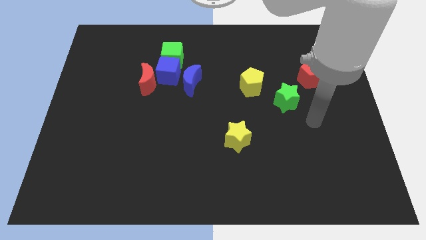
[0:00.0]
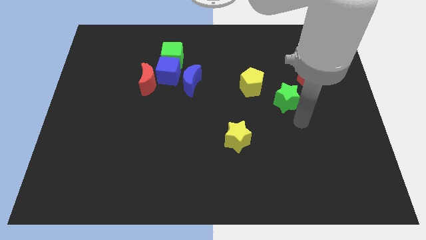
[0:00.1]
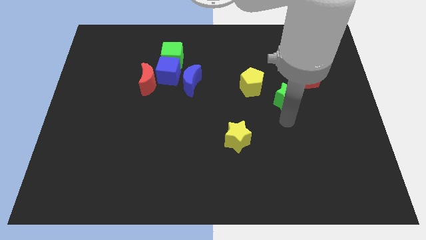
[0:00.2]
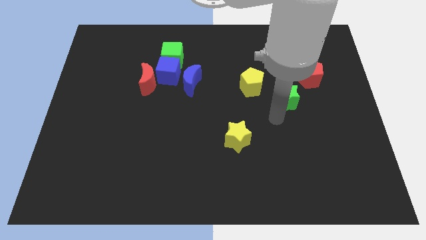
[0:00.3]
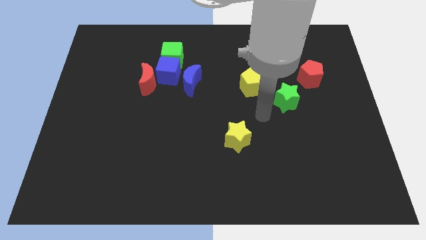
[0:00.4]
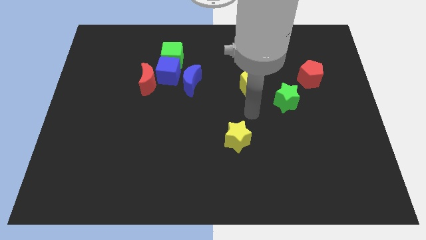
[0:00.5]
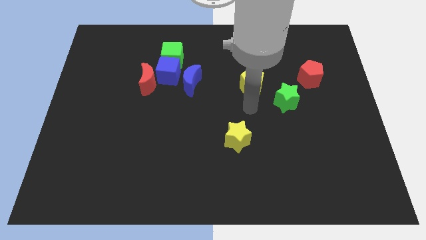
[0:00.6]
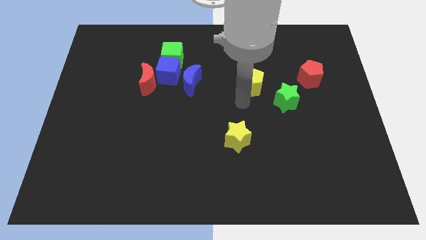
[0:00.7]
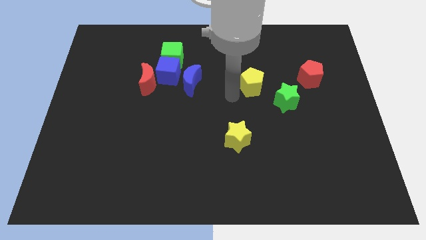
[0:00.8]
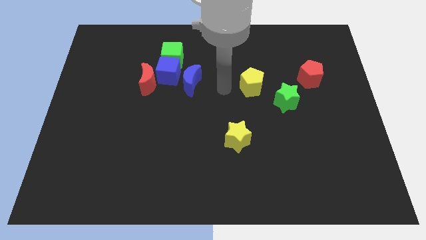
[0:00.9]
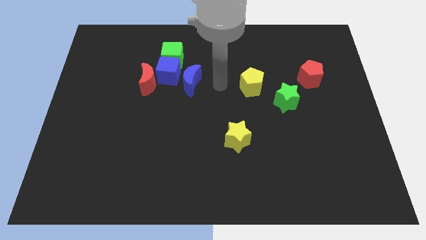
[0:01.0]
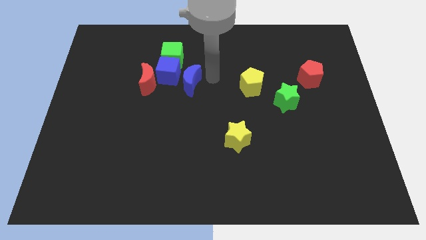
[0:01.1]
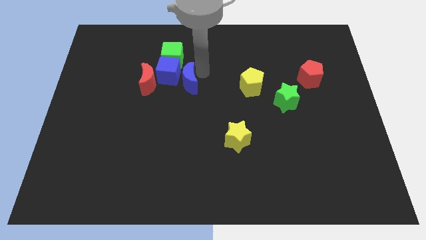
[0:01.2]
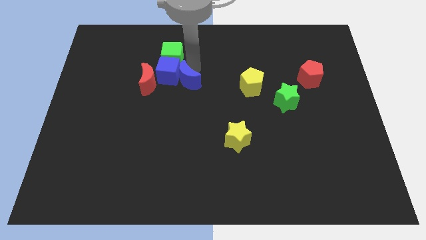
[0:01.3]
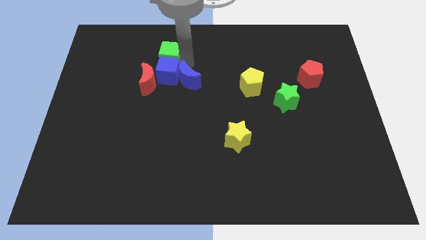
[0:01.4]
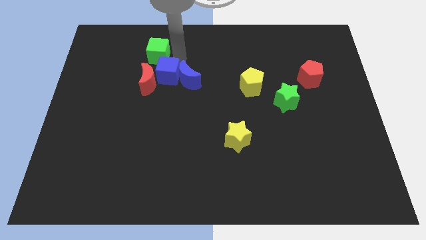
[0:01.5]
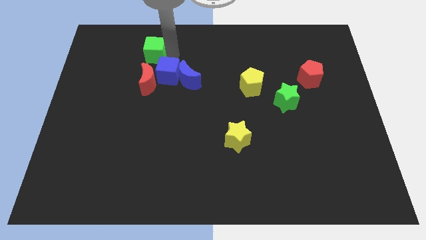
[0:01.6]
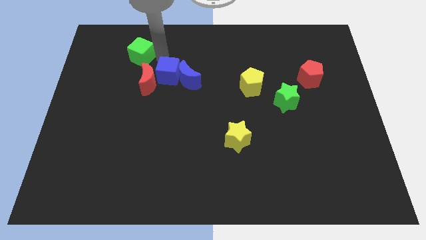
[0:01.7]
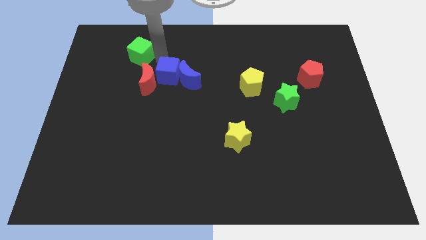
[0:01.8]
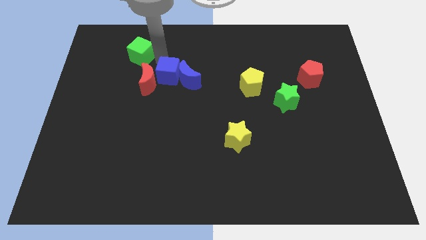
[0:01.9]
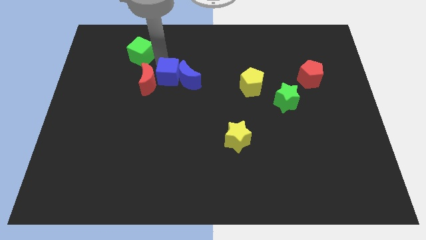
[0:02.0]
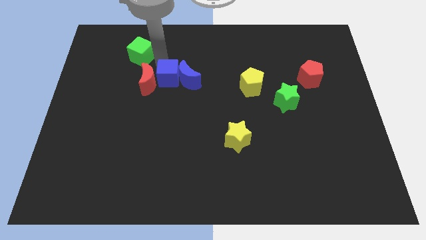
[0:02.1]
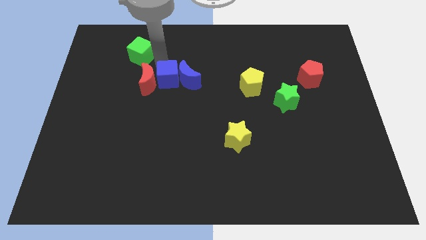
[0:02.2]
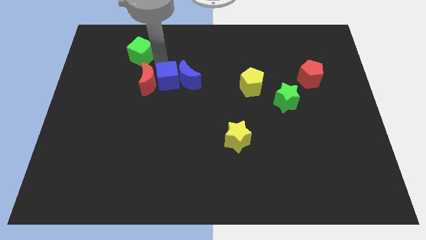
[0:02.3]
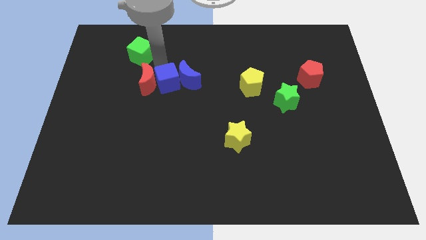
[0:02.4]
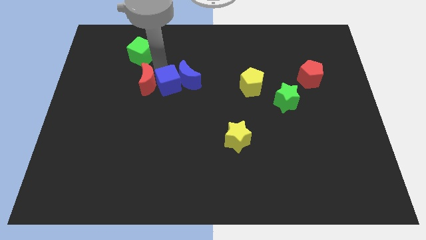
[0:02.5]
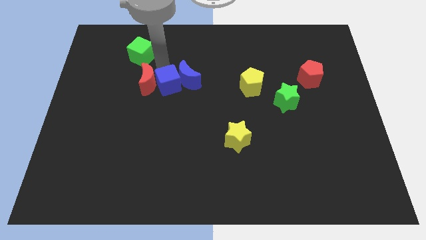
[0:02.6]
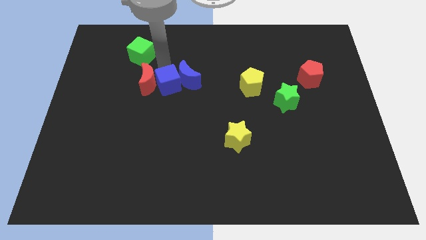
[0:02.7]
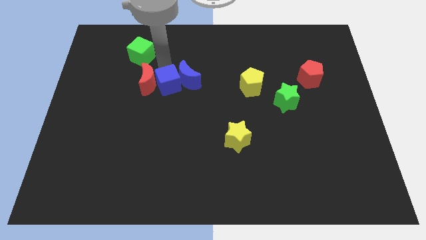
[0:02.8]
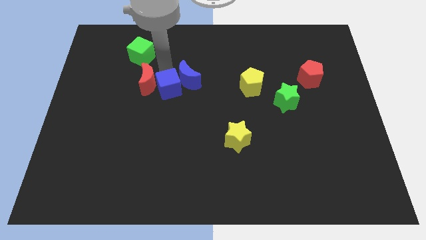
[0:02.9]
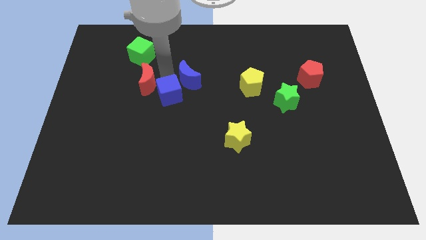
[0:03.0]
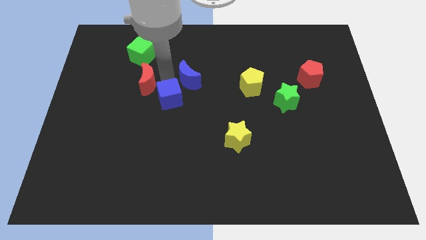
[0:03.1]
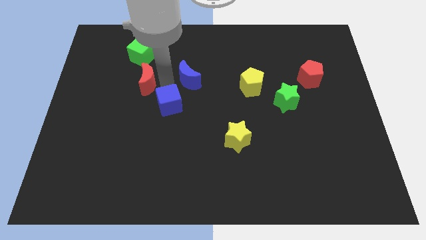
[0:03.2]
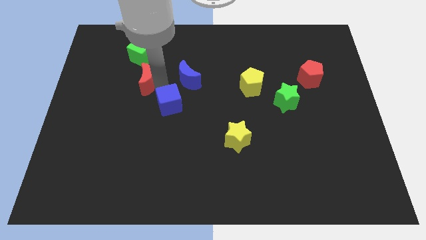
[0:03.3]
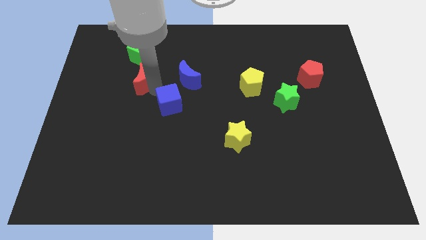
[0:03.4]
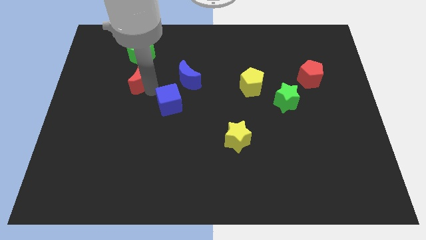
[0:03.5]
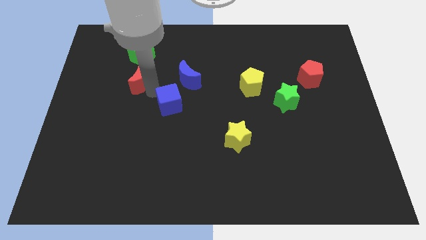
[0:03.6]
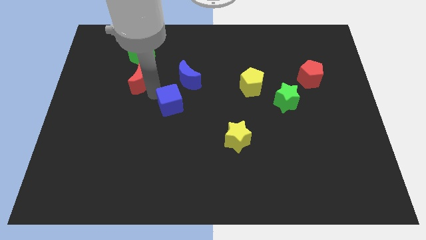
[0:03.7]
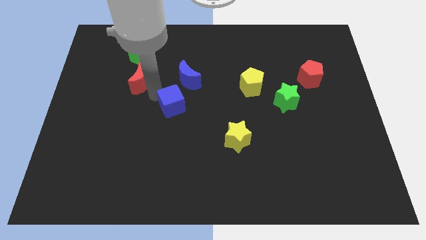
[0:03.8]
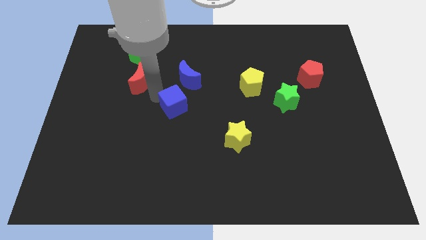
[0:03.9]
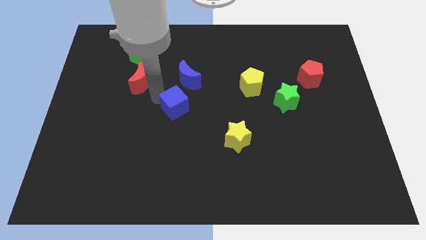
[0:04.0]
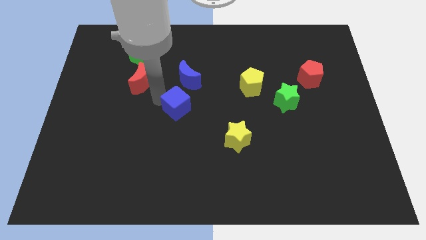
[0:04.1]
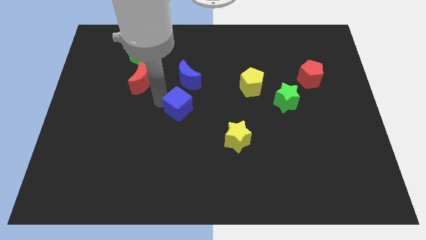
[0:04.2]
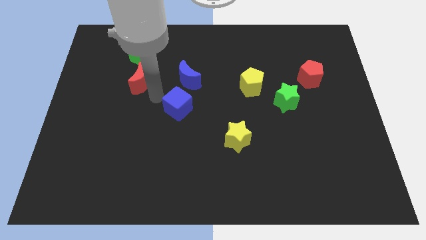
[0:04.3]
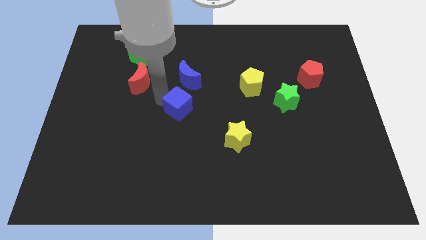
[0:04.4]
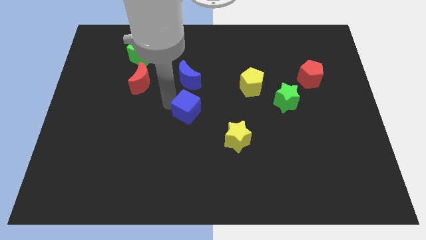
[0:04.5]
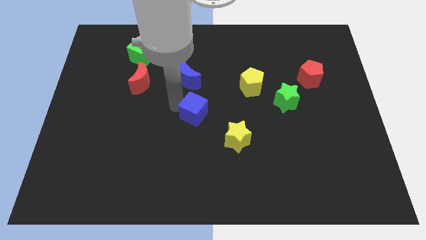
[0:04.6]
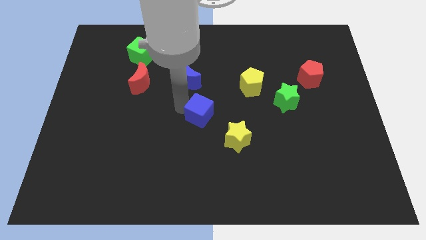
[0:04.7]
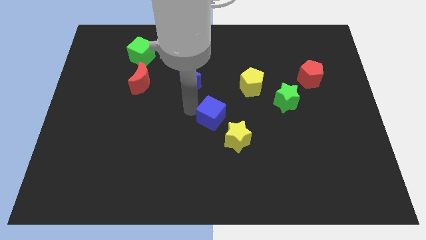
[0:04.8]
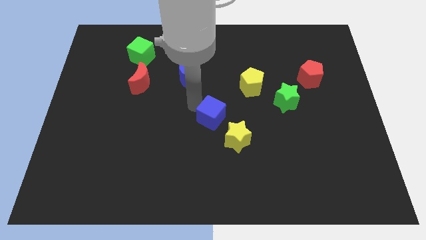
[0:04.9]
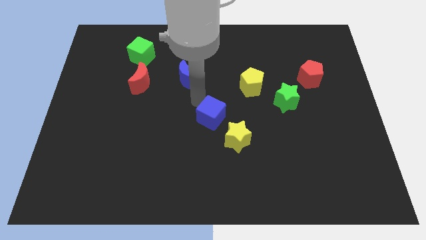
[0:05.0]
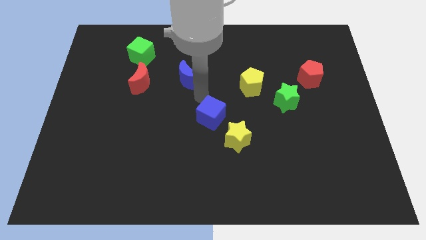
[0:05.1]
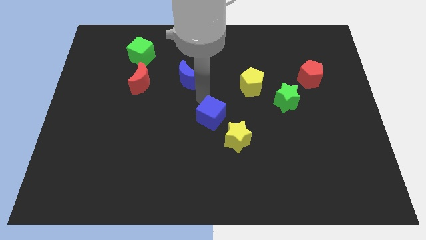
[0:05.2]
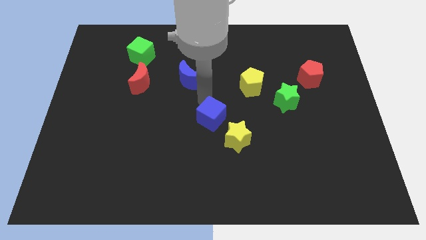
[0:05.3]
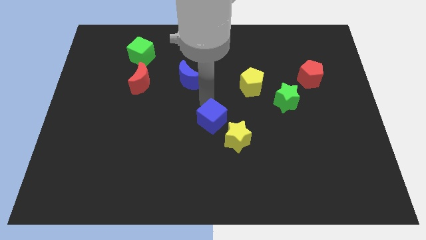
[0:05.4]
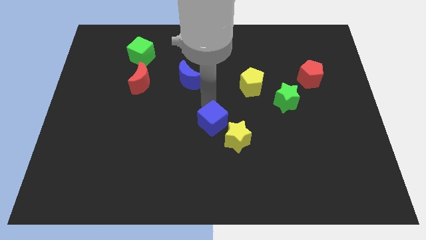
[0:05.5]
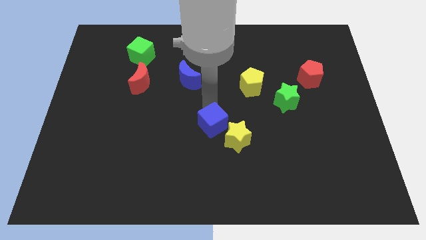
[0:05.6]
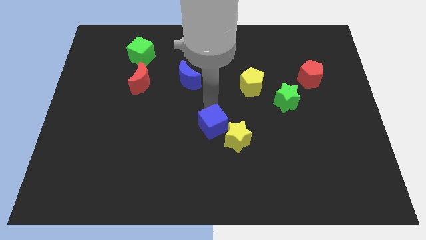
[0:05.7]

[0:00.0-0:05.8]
push the blue cube towards the yellow star

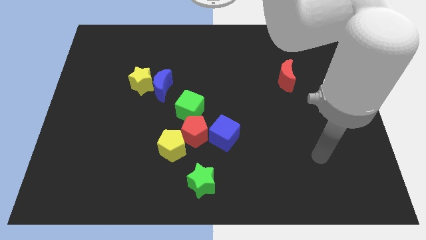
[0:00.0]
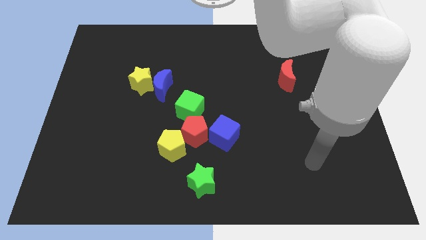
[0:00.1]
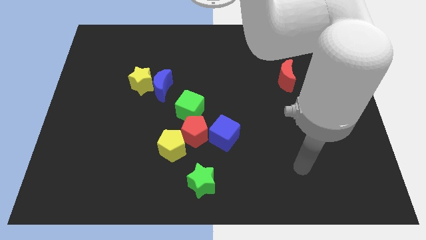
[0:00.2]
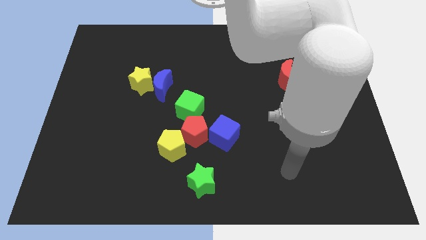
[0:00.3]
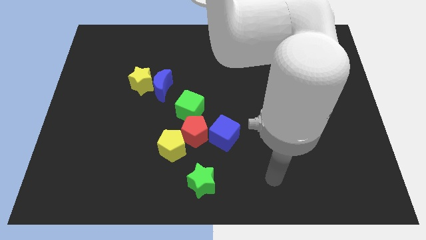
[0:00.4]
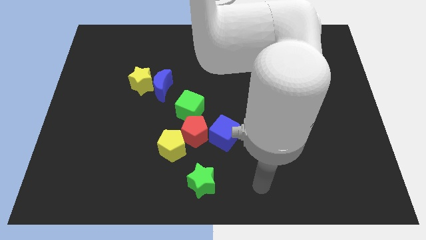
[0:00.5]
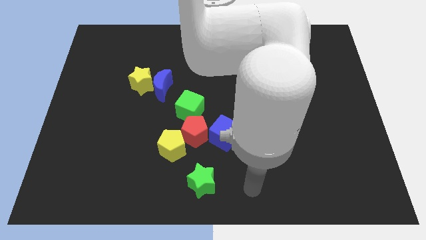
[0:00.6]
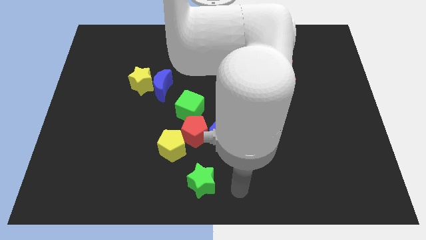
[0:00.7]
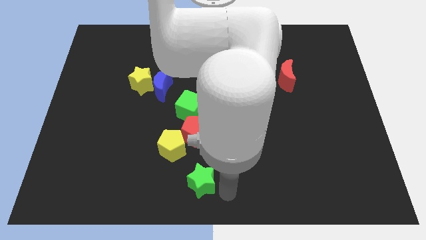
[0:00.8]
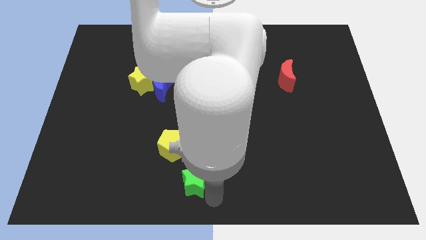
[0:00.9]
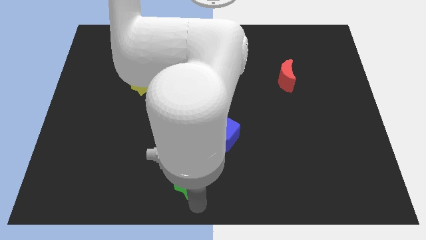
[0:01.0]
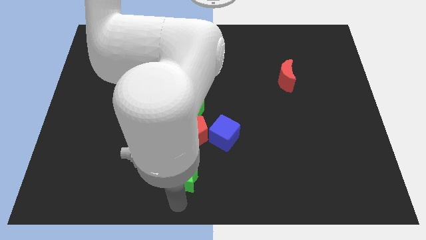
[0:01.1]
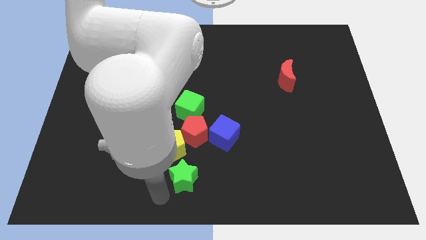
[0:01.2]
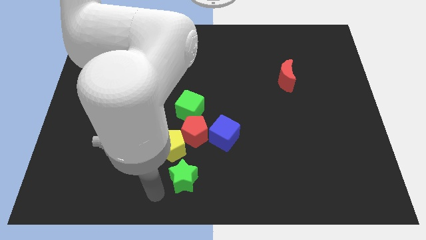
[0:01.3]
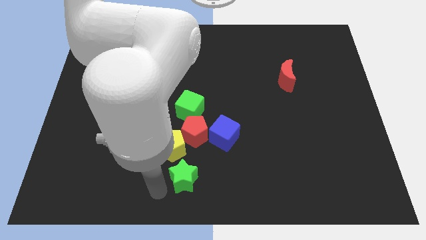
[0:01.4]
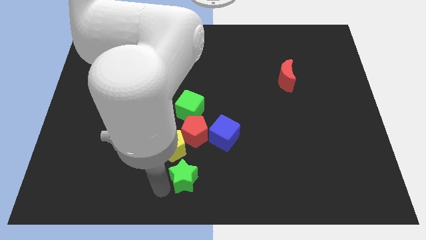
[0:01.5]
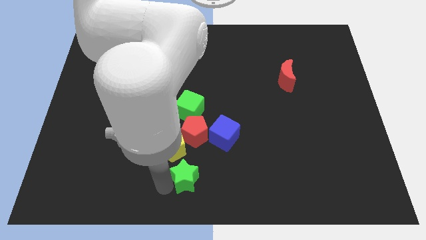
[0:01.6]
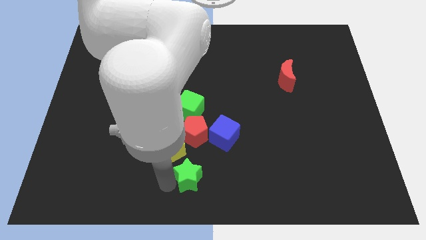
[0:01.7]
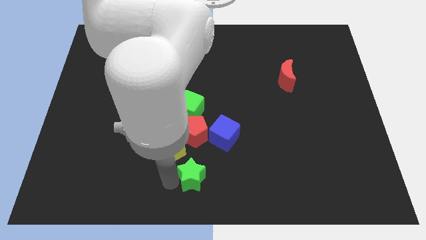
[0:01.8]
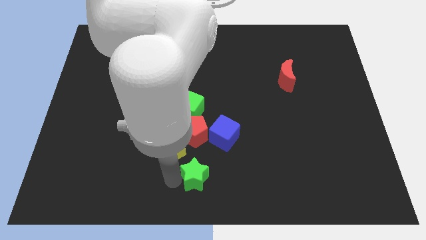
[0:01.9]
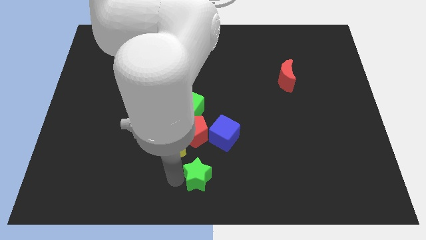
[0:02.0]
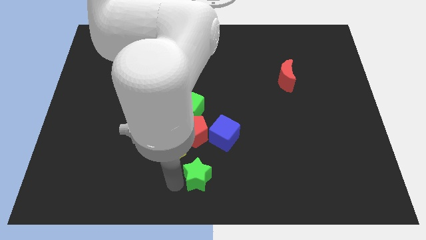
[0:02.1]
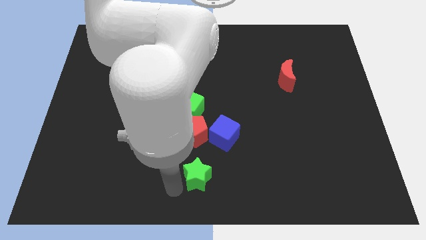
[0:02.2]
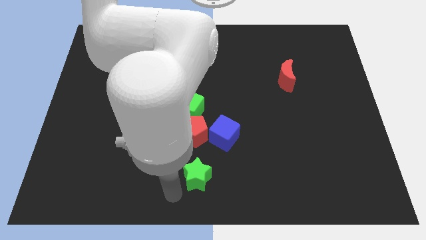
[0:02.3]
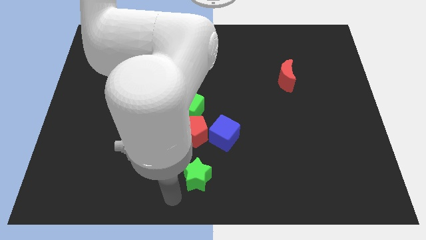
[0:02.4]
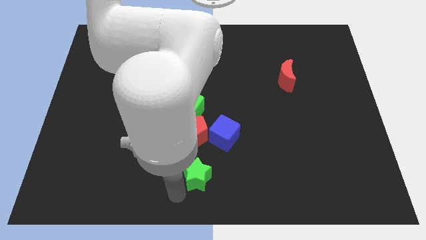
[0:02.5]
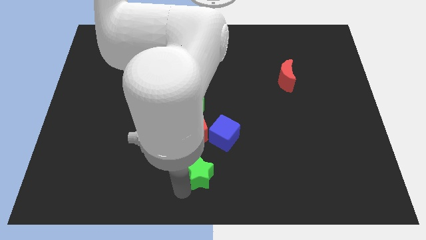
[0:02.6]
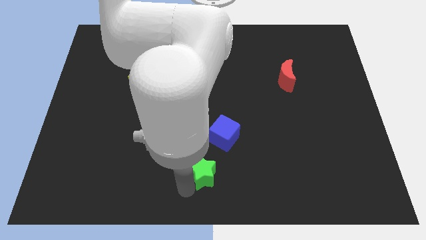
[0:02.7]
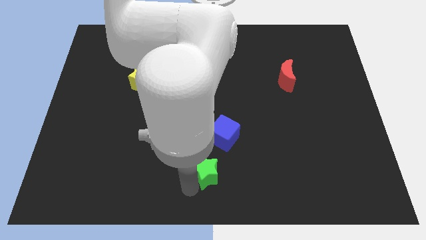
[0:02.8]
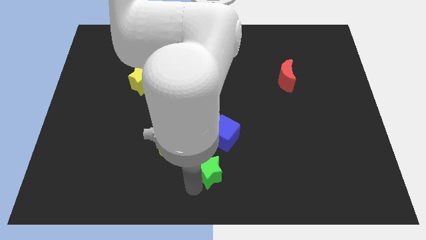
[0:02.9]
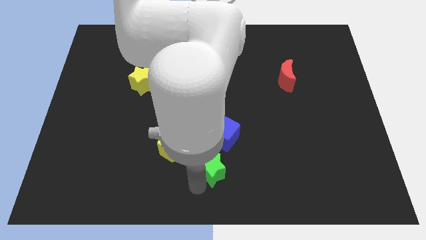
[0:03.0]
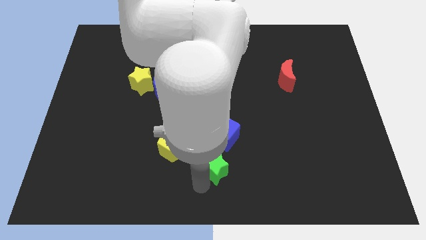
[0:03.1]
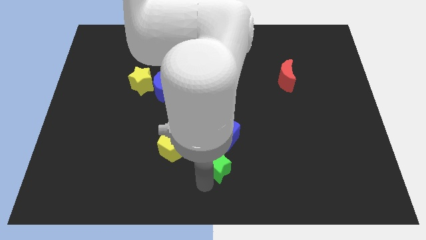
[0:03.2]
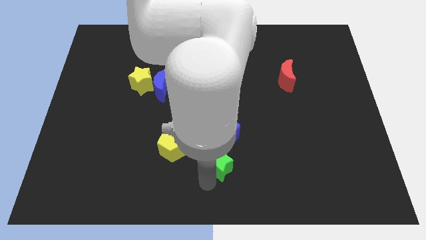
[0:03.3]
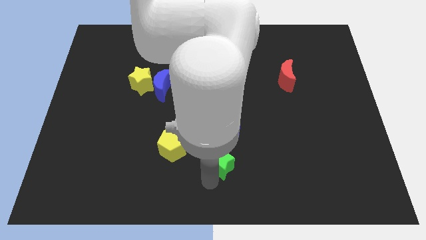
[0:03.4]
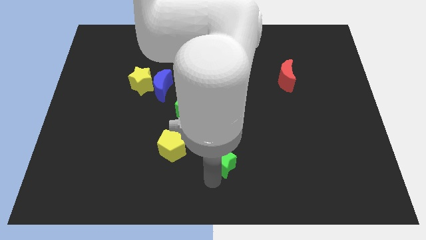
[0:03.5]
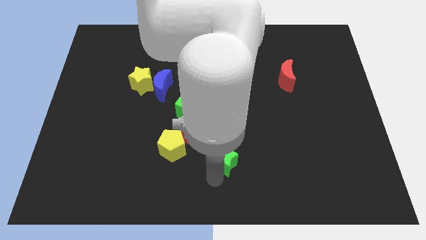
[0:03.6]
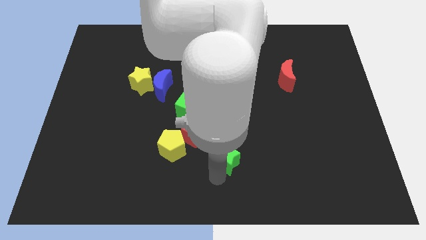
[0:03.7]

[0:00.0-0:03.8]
push the green star close to the blue cube
